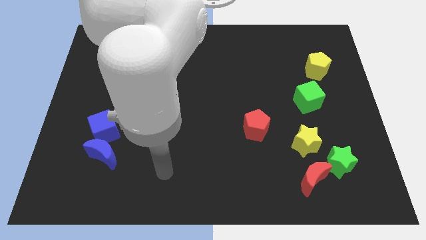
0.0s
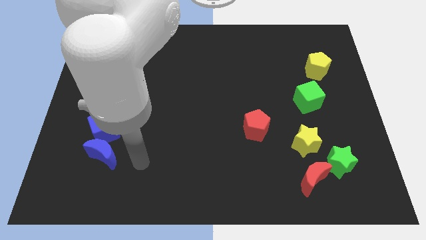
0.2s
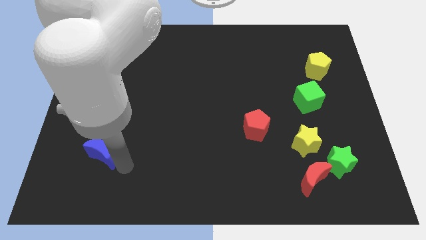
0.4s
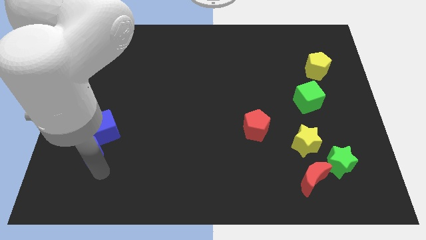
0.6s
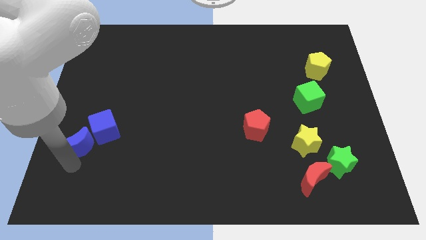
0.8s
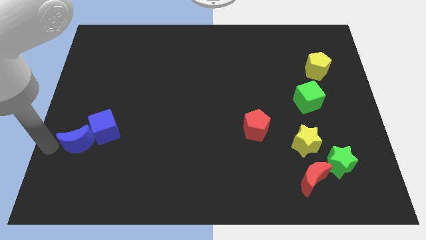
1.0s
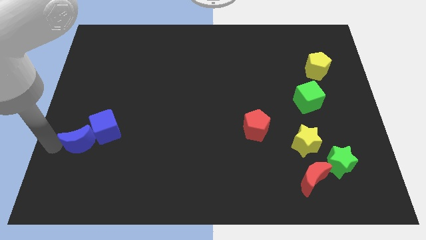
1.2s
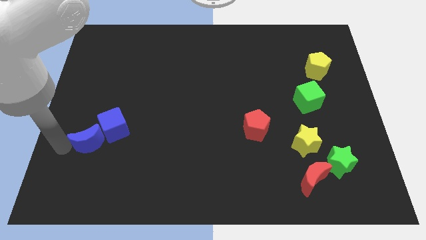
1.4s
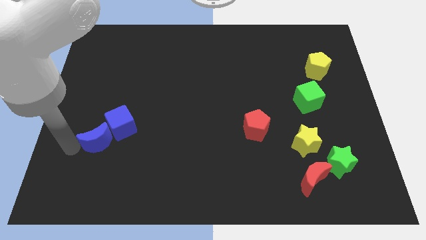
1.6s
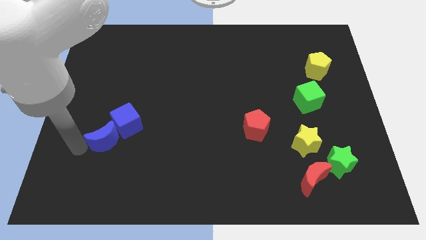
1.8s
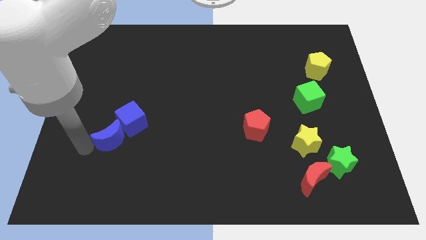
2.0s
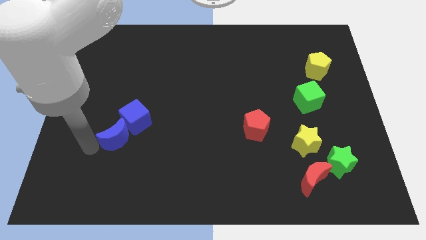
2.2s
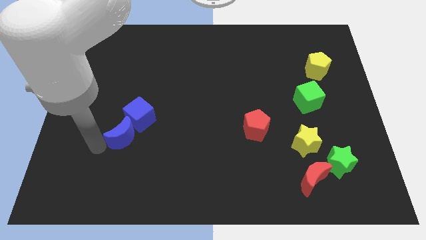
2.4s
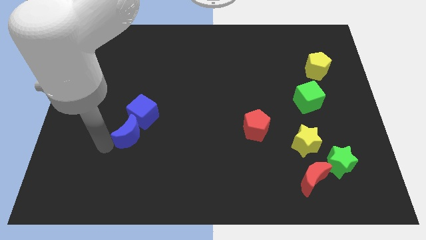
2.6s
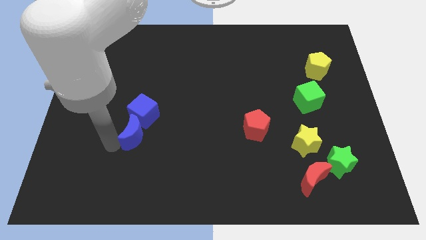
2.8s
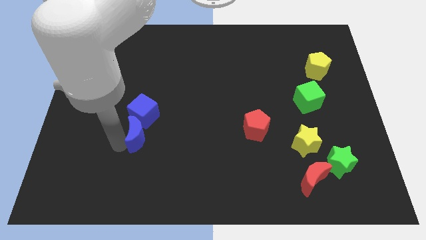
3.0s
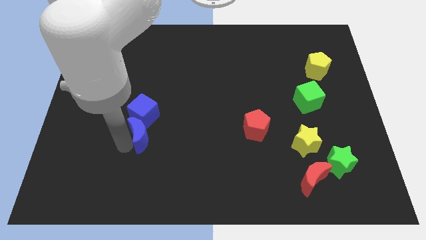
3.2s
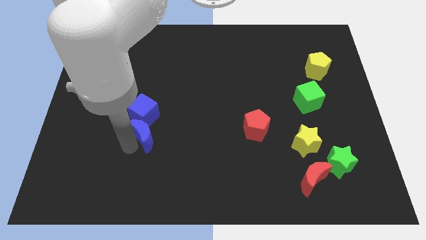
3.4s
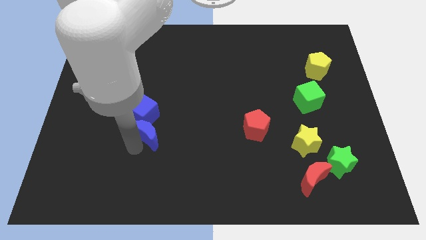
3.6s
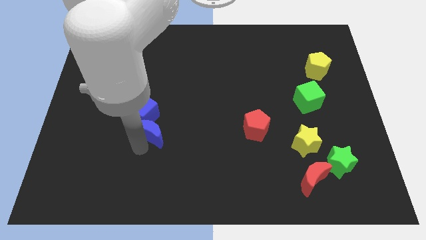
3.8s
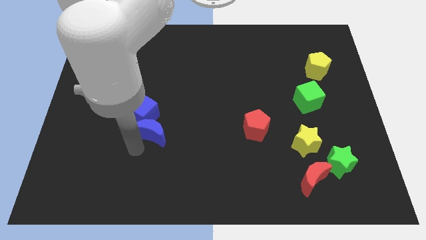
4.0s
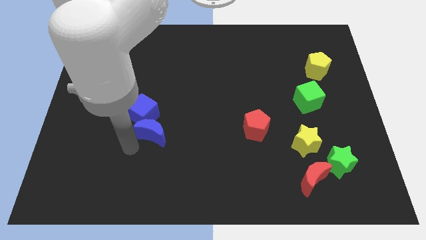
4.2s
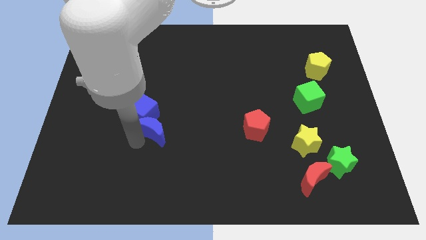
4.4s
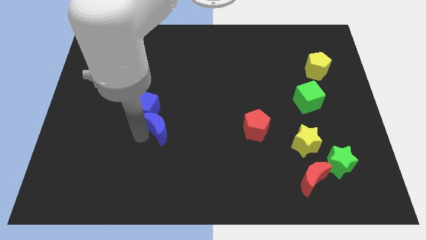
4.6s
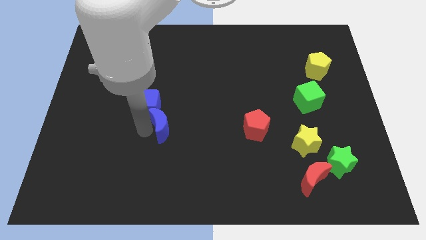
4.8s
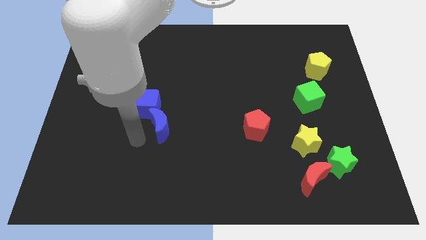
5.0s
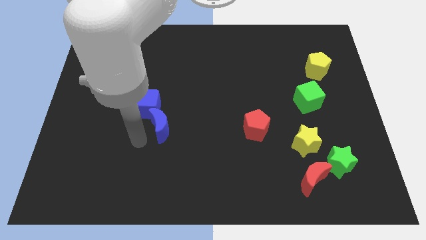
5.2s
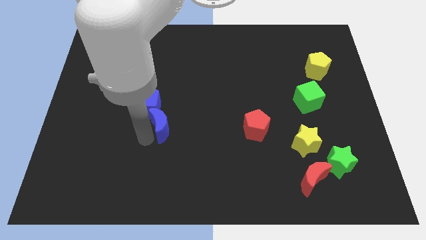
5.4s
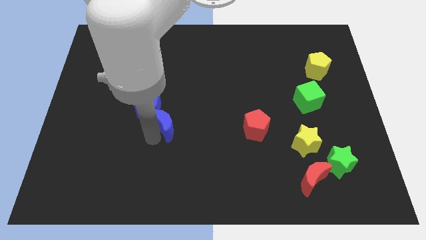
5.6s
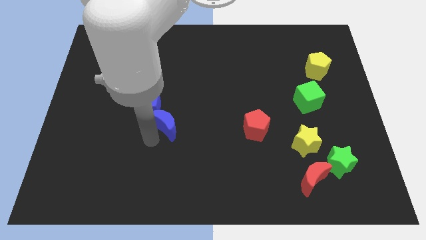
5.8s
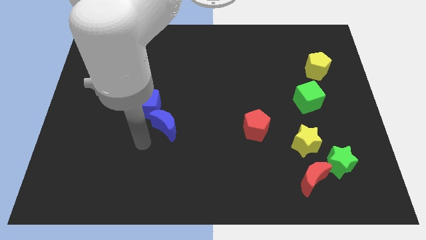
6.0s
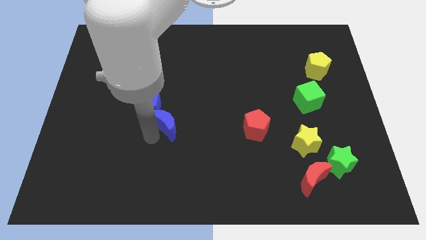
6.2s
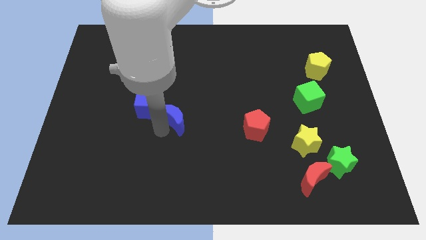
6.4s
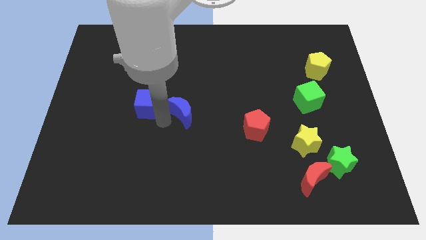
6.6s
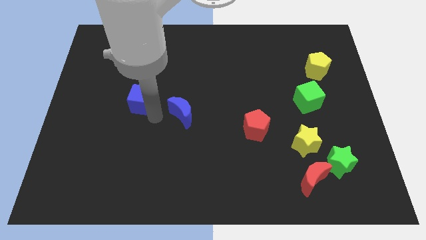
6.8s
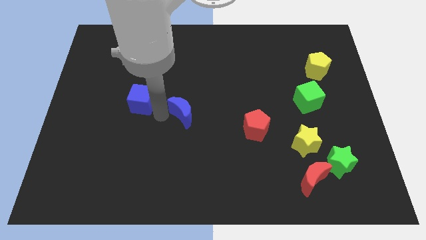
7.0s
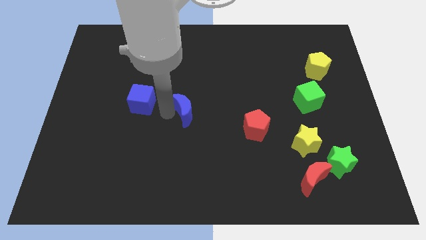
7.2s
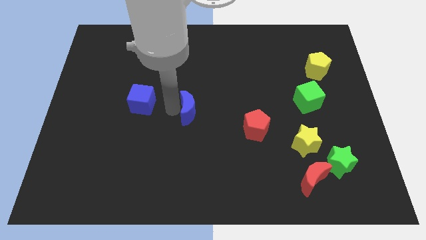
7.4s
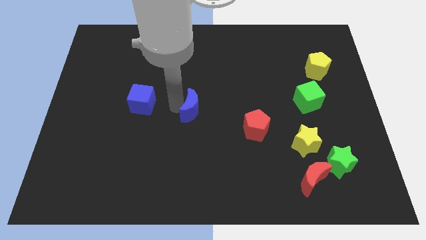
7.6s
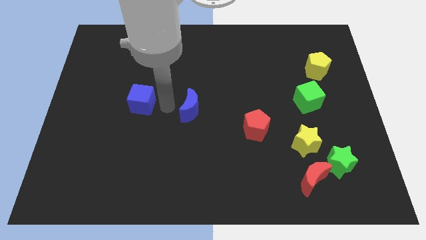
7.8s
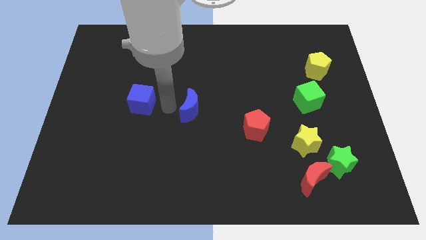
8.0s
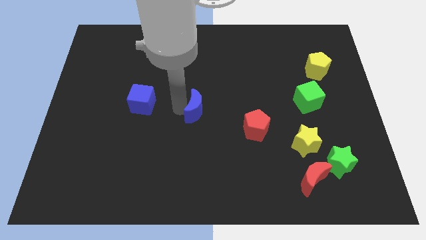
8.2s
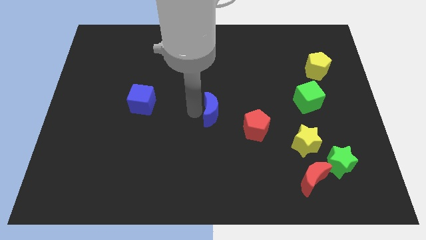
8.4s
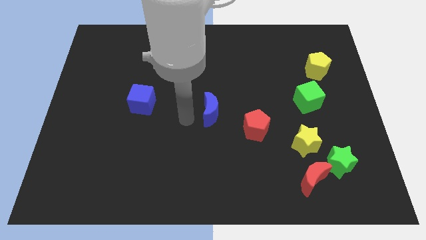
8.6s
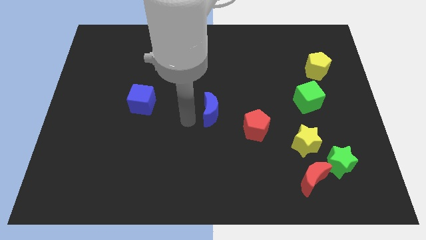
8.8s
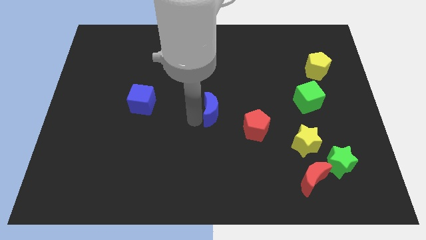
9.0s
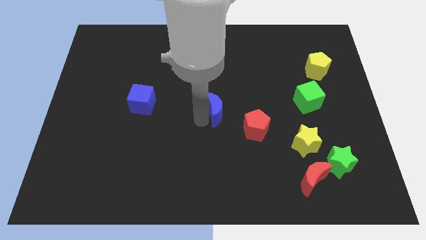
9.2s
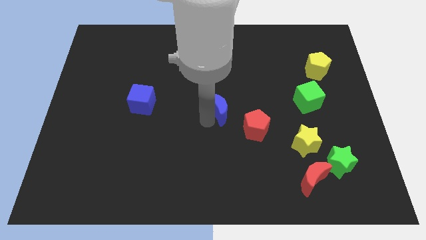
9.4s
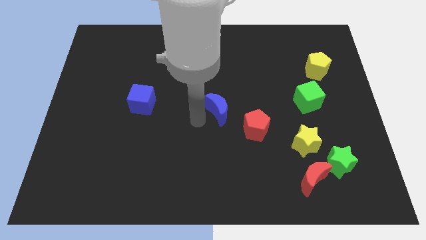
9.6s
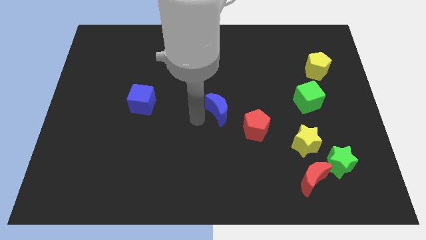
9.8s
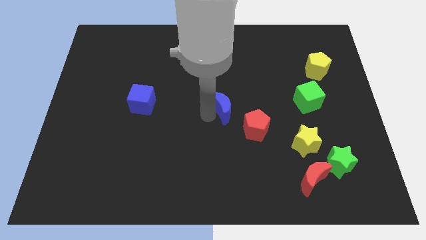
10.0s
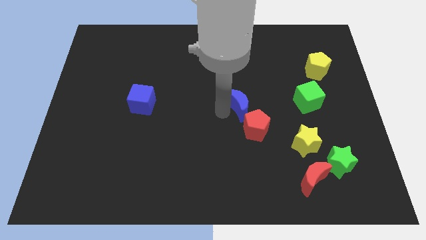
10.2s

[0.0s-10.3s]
put the blue moon to the top side of the red pentagon

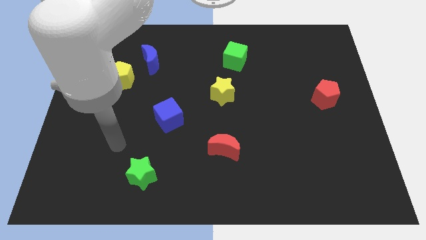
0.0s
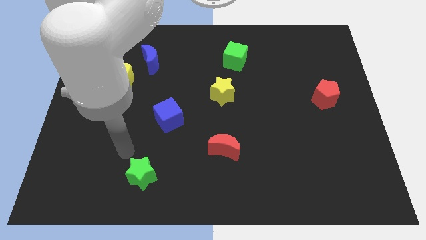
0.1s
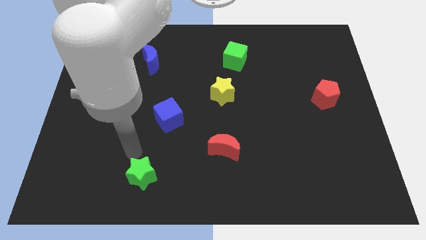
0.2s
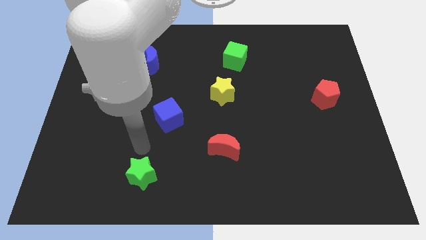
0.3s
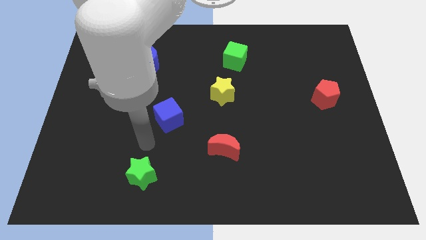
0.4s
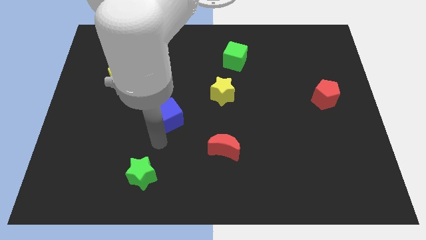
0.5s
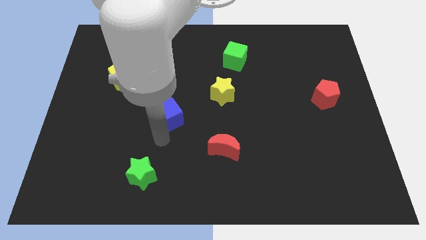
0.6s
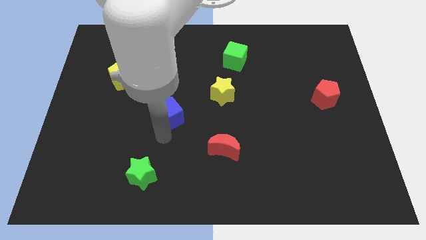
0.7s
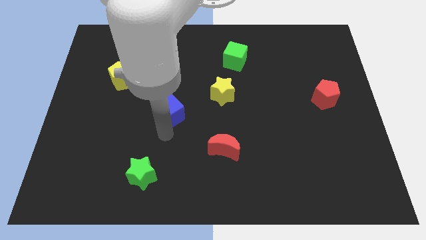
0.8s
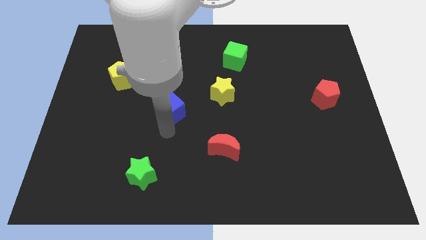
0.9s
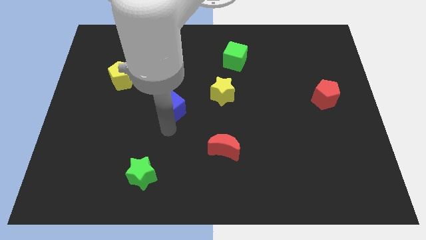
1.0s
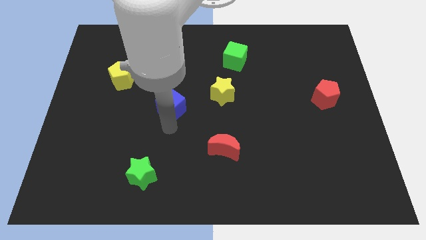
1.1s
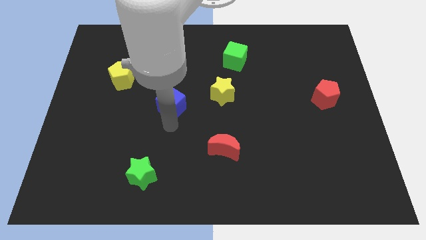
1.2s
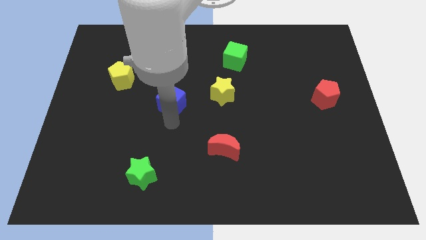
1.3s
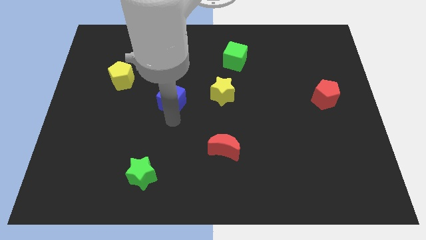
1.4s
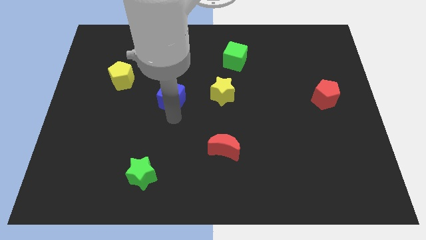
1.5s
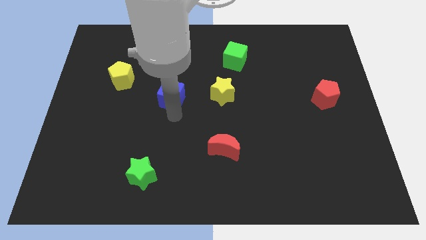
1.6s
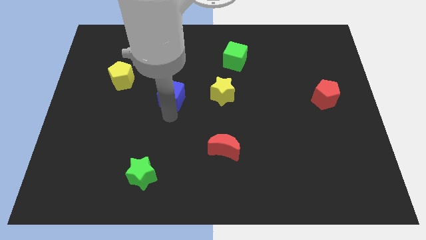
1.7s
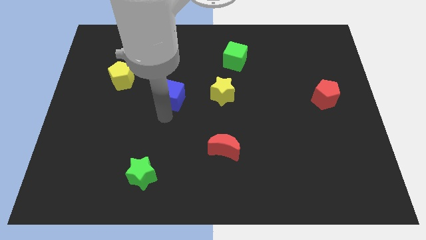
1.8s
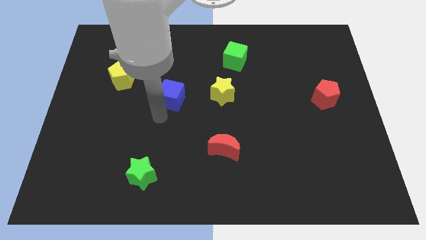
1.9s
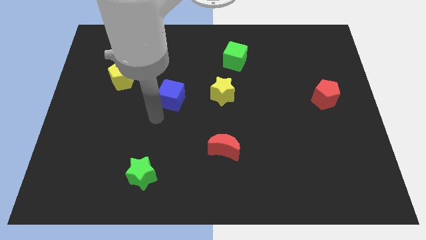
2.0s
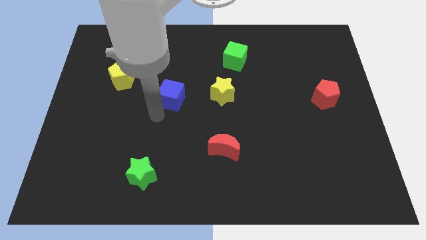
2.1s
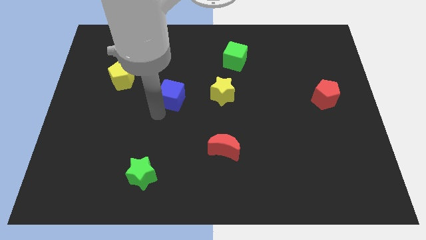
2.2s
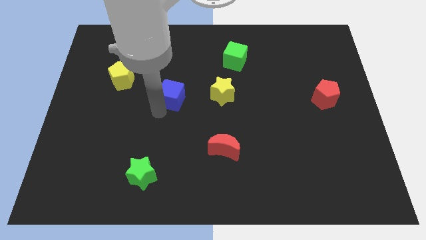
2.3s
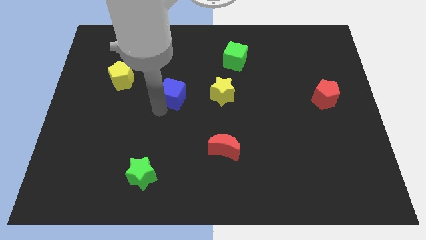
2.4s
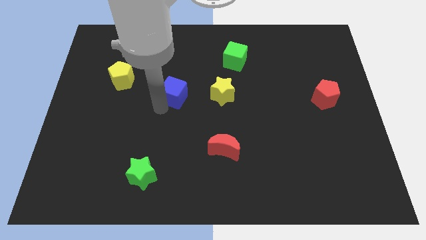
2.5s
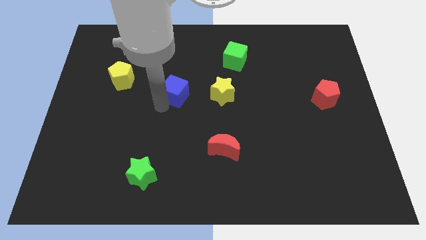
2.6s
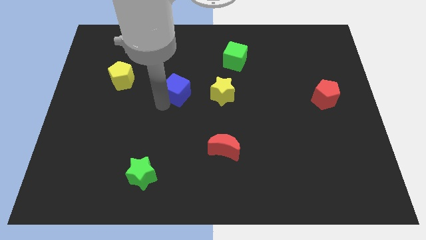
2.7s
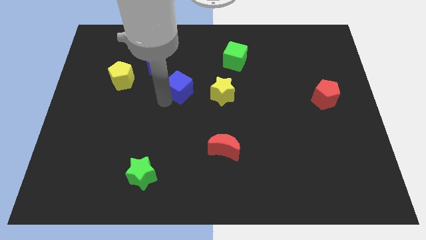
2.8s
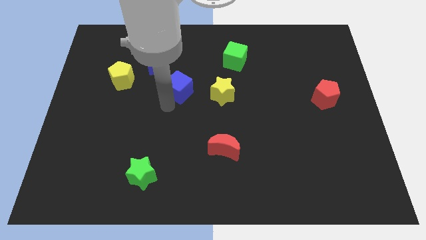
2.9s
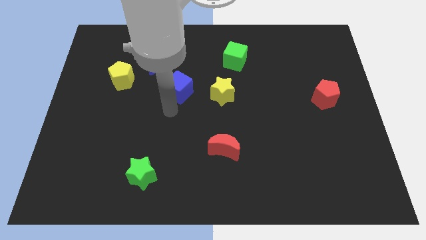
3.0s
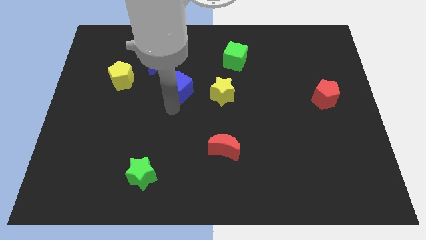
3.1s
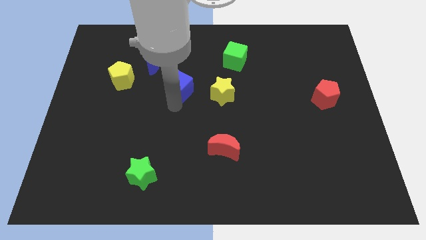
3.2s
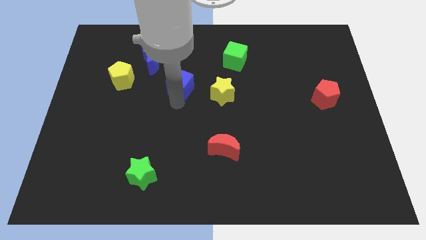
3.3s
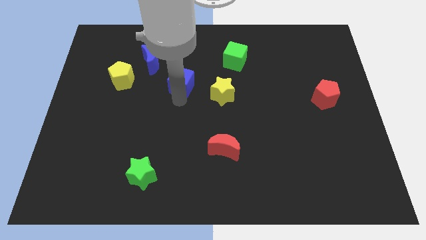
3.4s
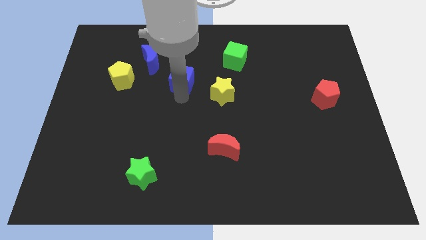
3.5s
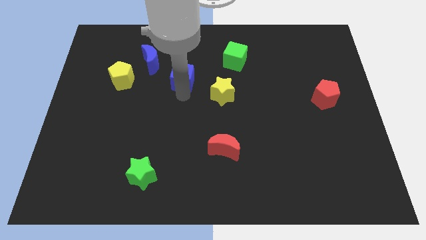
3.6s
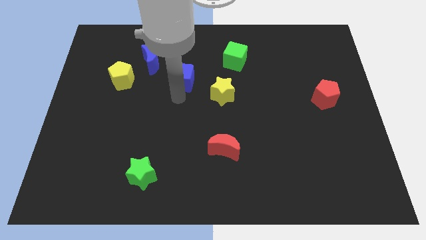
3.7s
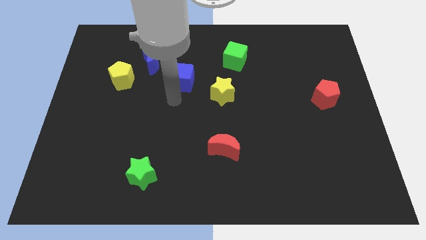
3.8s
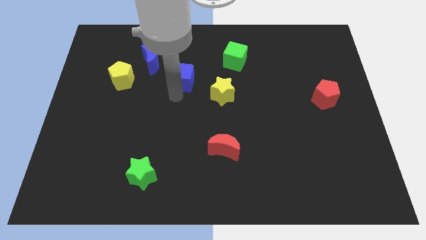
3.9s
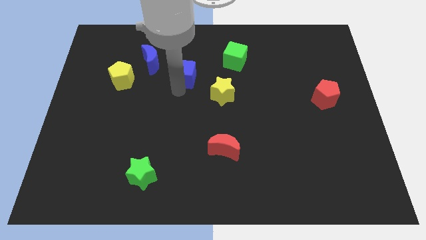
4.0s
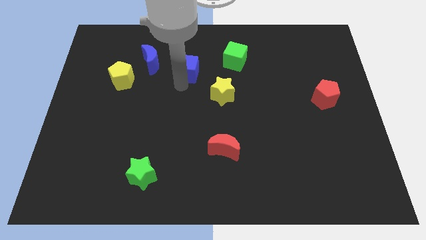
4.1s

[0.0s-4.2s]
push the blue cube right of the blue moon
